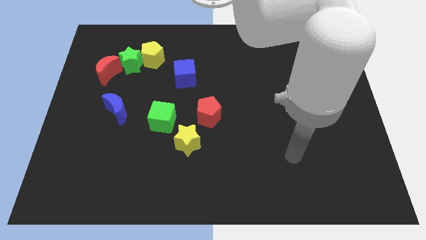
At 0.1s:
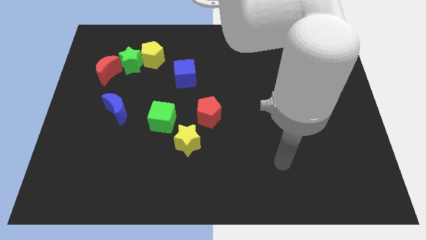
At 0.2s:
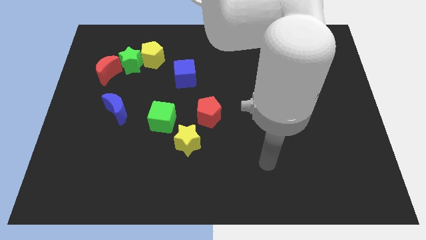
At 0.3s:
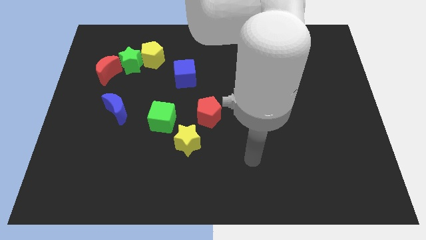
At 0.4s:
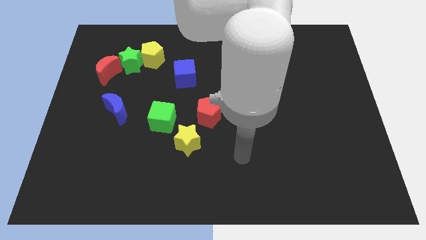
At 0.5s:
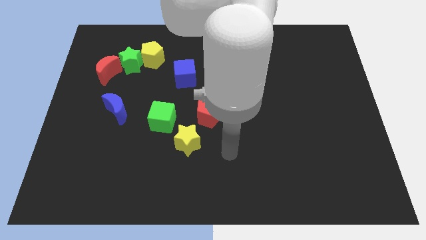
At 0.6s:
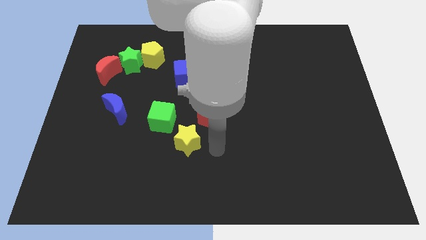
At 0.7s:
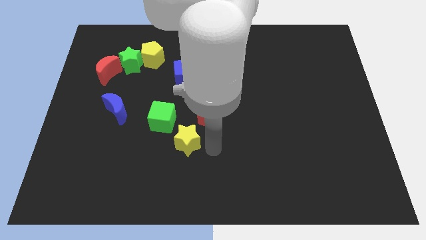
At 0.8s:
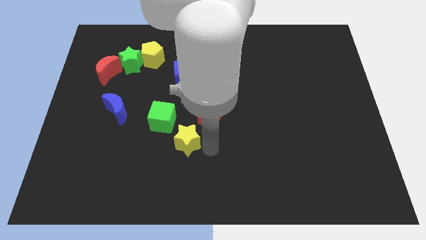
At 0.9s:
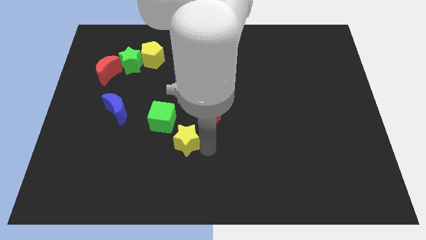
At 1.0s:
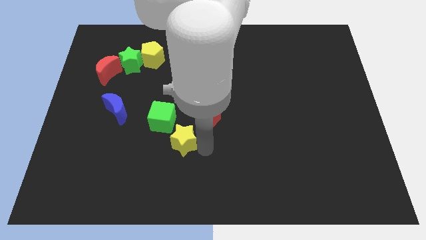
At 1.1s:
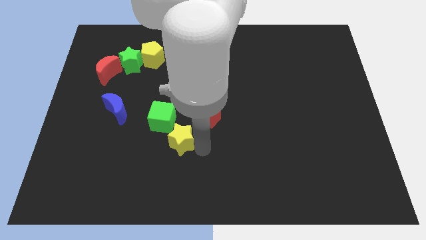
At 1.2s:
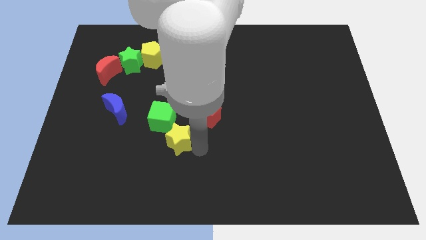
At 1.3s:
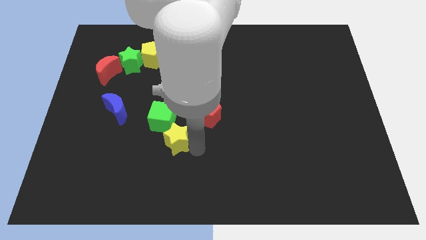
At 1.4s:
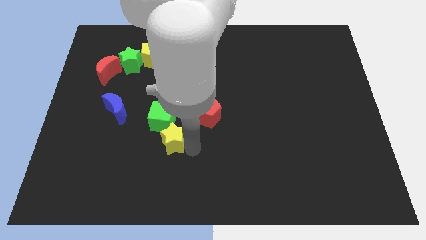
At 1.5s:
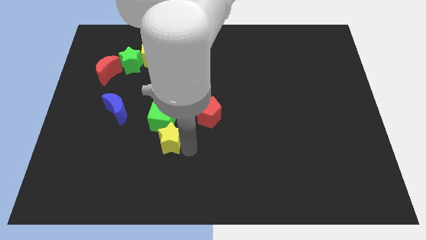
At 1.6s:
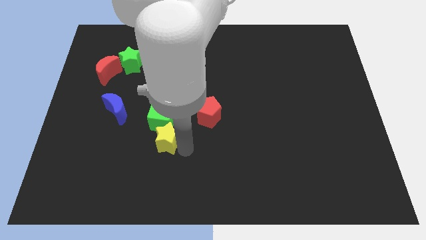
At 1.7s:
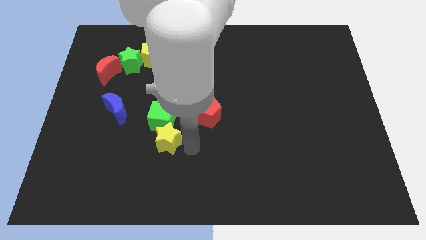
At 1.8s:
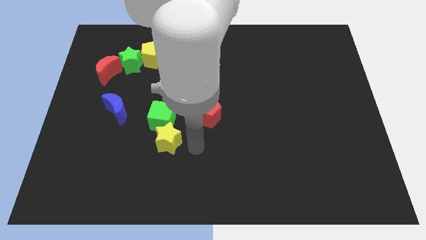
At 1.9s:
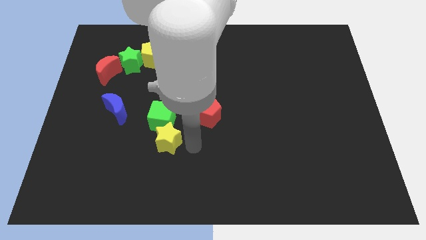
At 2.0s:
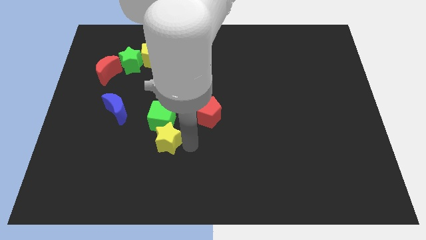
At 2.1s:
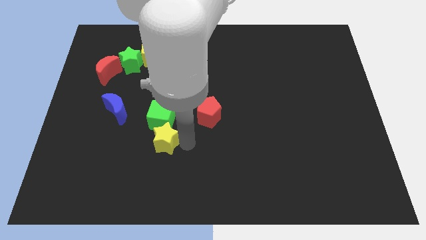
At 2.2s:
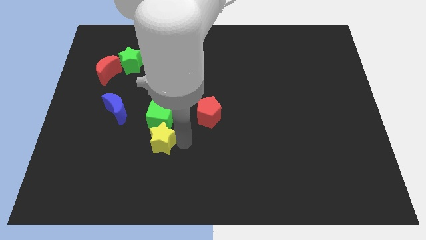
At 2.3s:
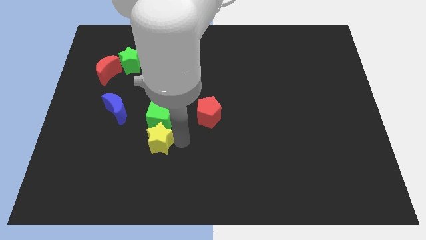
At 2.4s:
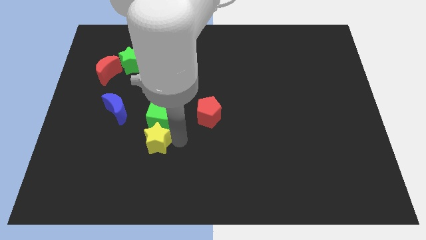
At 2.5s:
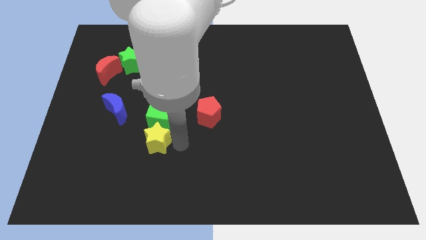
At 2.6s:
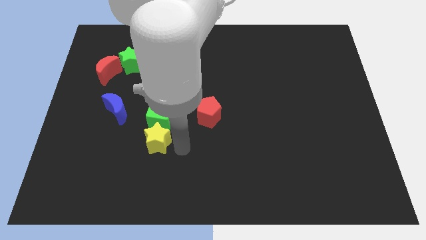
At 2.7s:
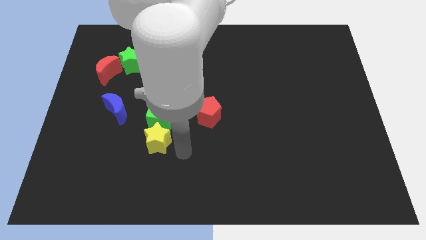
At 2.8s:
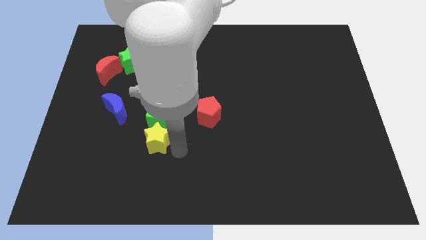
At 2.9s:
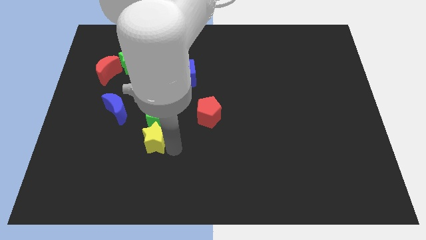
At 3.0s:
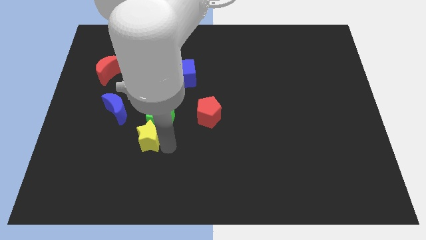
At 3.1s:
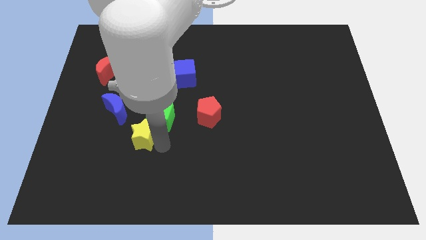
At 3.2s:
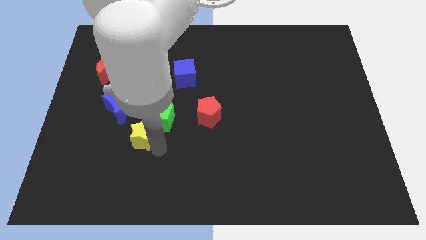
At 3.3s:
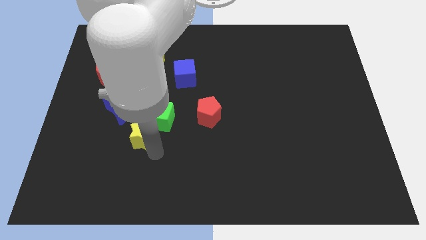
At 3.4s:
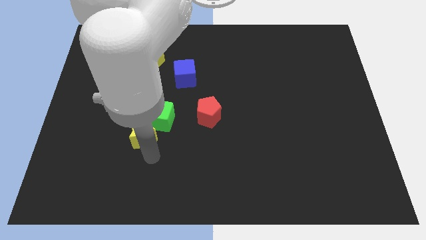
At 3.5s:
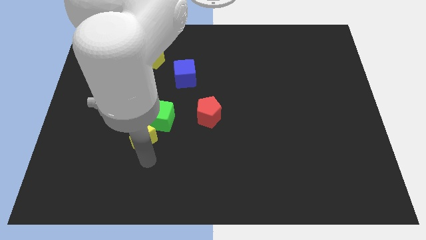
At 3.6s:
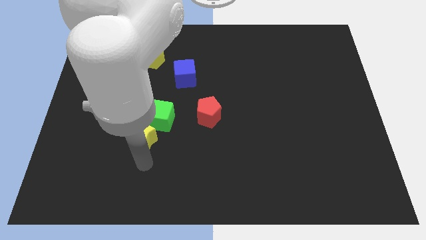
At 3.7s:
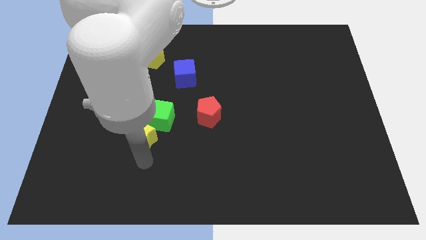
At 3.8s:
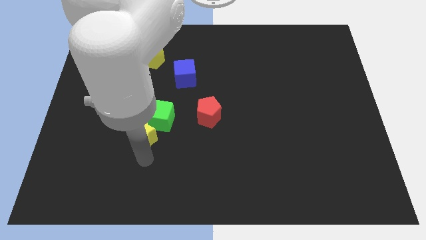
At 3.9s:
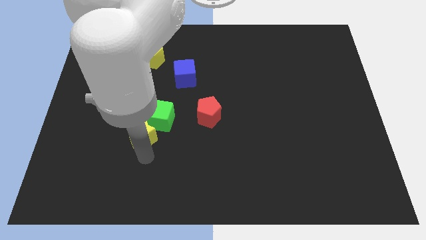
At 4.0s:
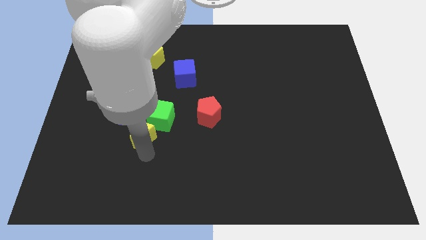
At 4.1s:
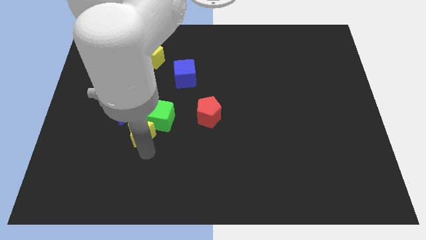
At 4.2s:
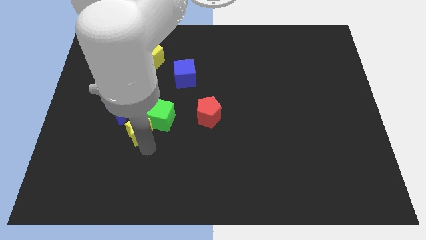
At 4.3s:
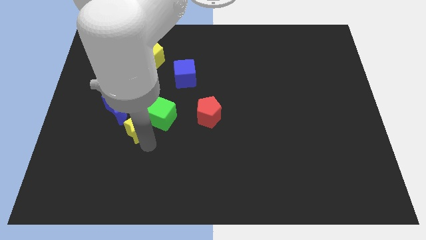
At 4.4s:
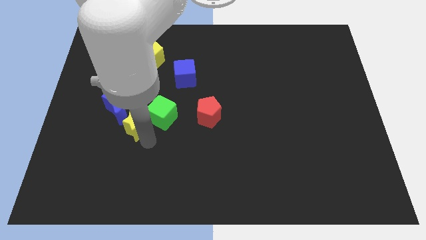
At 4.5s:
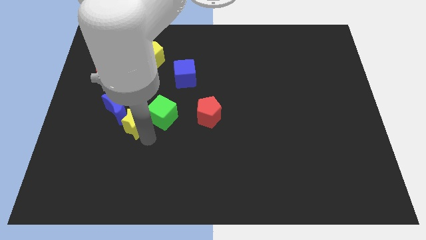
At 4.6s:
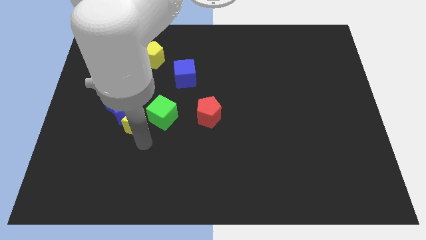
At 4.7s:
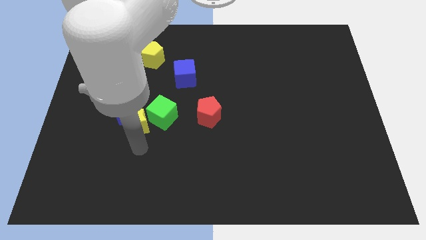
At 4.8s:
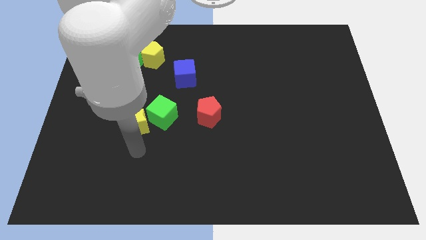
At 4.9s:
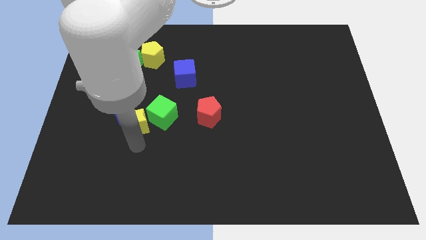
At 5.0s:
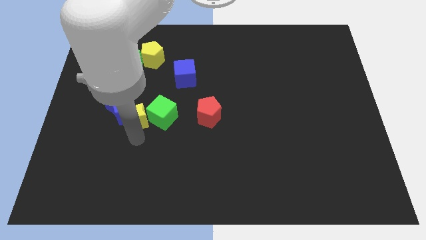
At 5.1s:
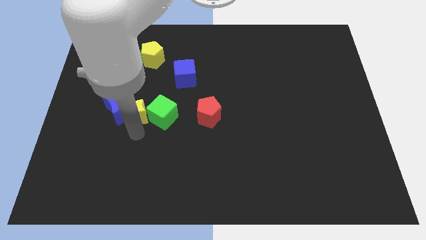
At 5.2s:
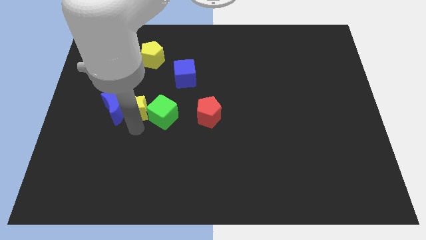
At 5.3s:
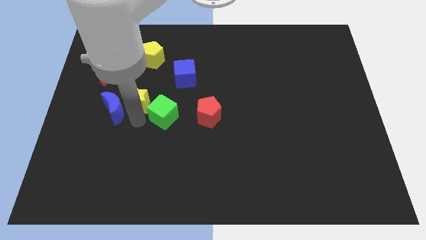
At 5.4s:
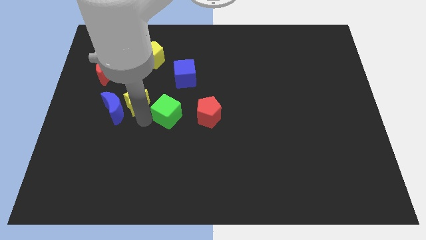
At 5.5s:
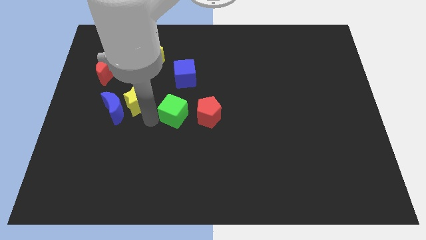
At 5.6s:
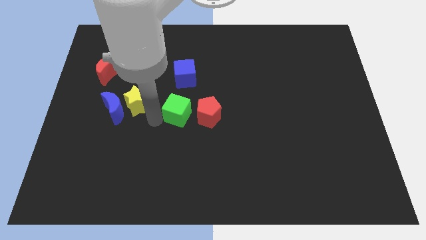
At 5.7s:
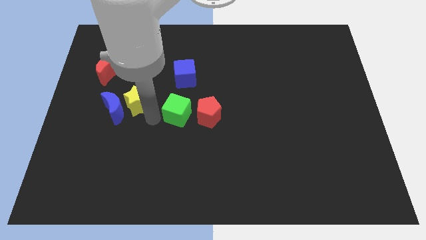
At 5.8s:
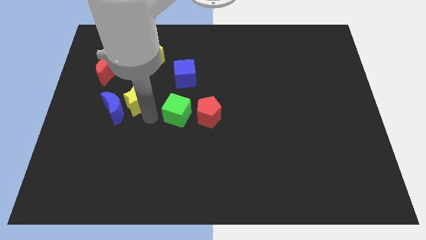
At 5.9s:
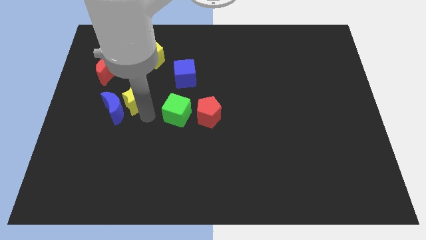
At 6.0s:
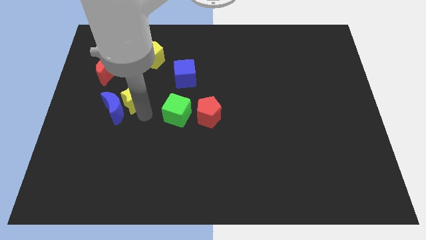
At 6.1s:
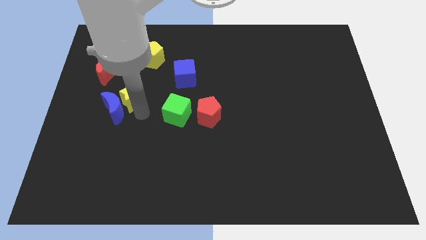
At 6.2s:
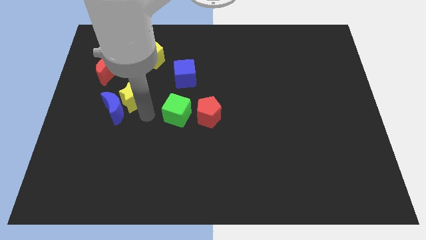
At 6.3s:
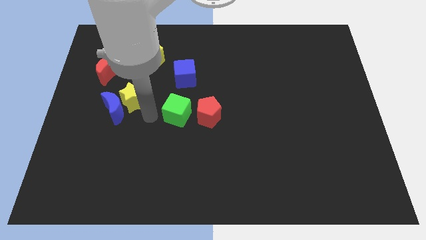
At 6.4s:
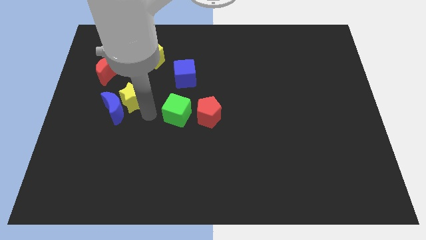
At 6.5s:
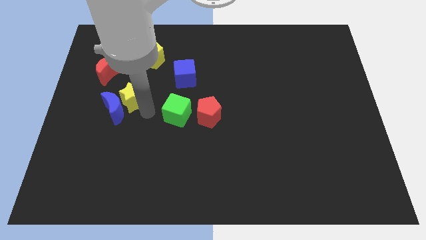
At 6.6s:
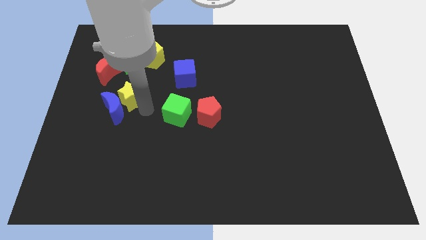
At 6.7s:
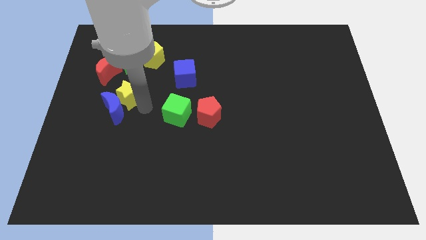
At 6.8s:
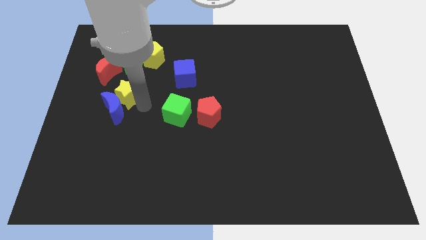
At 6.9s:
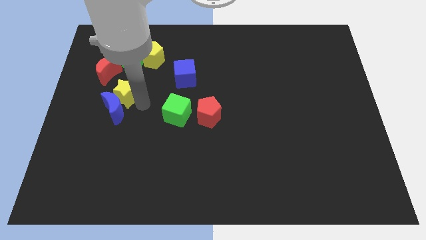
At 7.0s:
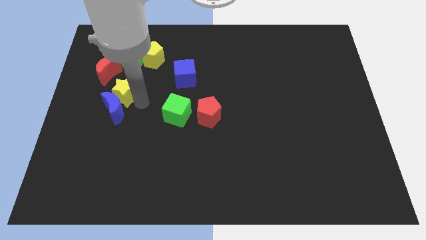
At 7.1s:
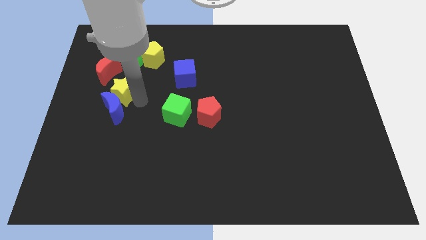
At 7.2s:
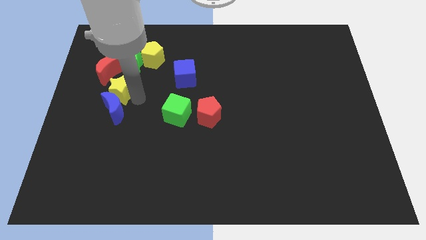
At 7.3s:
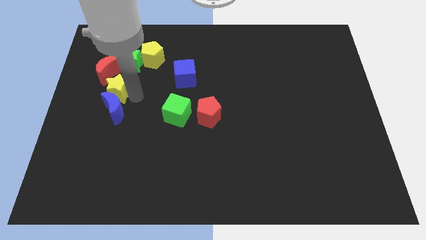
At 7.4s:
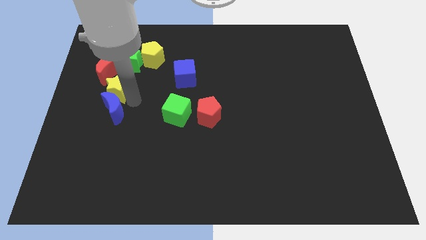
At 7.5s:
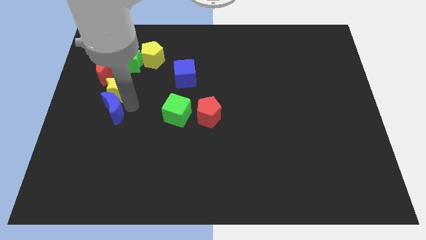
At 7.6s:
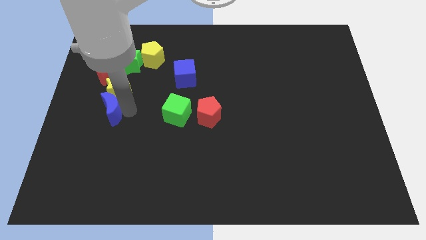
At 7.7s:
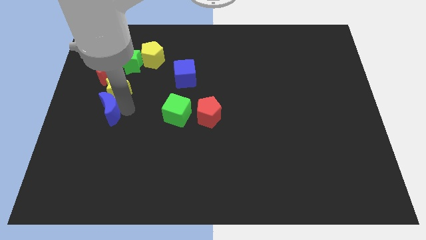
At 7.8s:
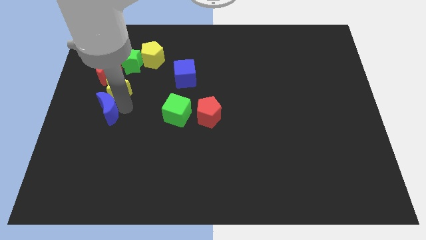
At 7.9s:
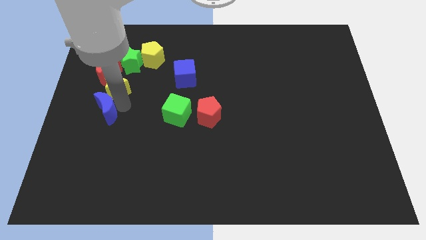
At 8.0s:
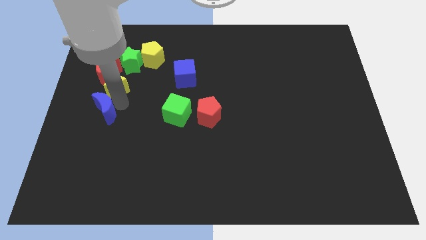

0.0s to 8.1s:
put the yellow star next to the red moon
